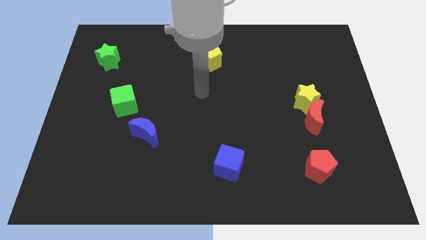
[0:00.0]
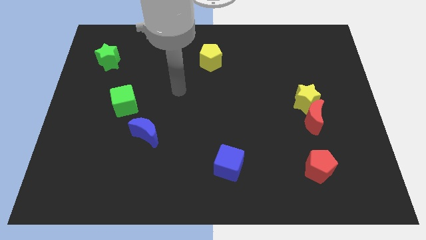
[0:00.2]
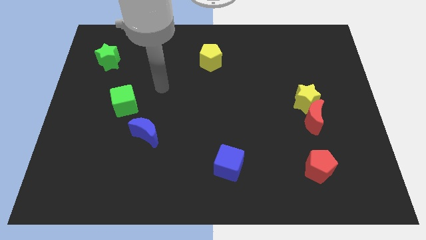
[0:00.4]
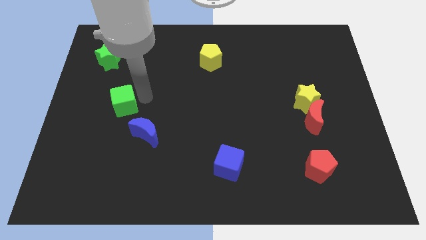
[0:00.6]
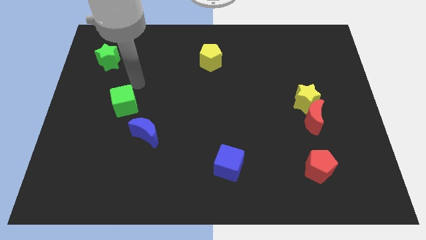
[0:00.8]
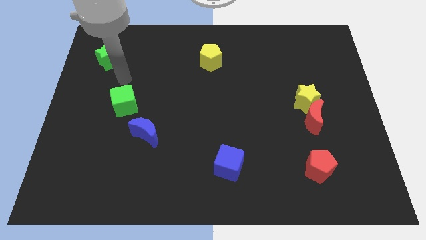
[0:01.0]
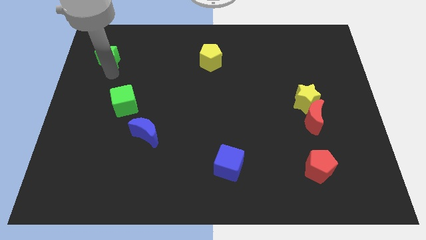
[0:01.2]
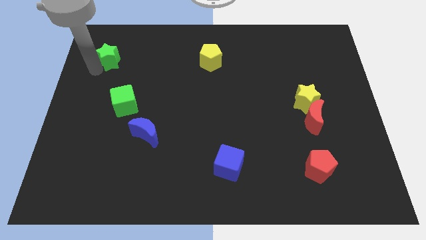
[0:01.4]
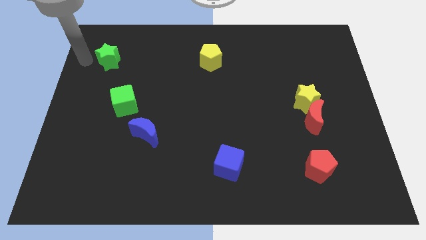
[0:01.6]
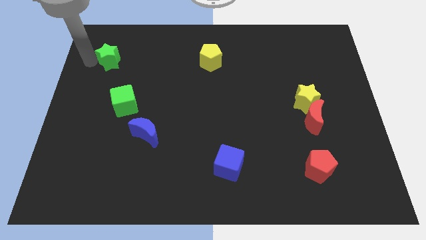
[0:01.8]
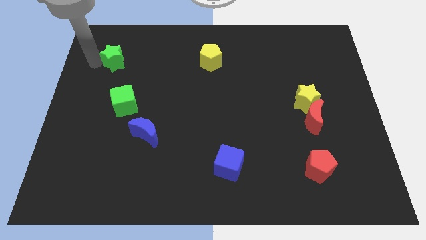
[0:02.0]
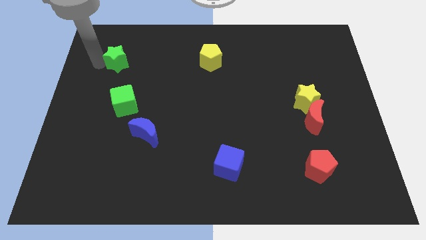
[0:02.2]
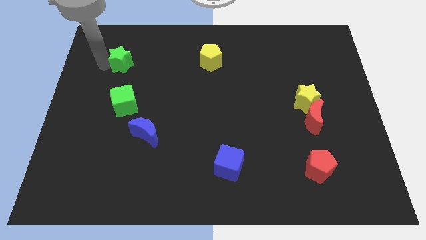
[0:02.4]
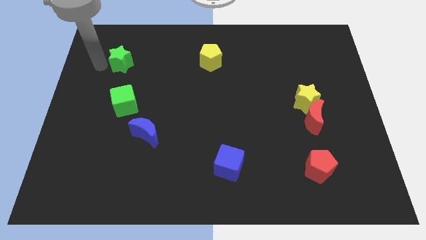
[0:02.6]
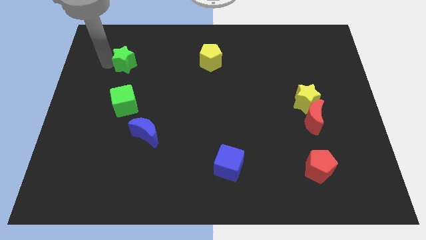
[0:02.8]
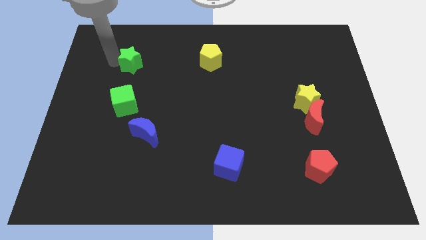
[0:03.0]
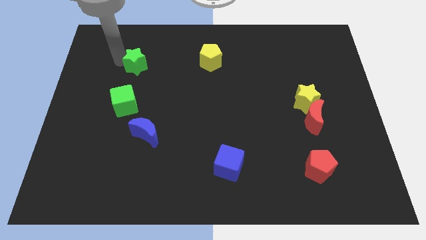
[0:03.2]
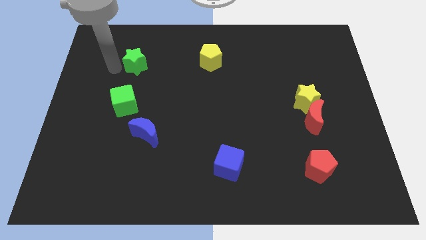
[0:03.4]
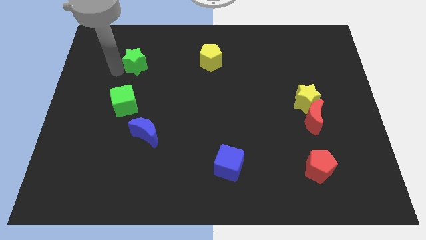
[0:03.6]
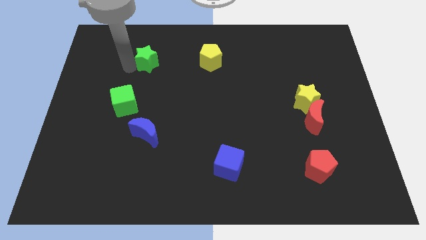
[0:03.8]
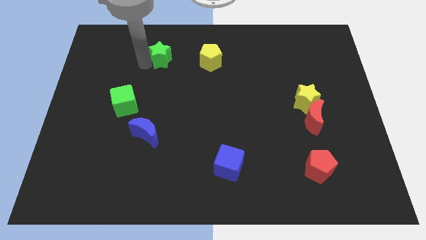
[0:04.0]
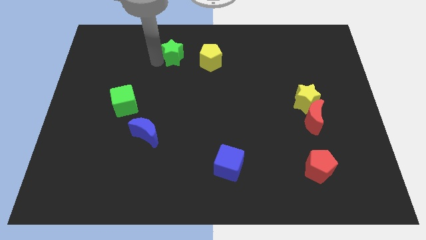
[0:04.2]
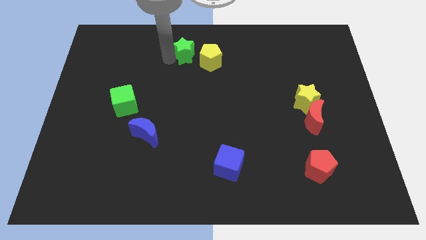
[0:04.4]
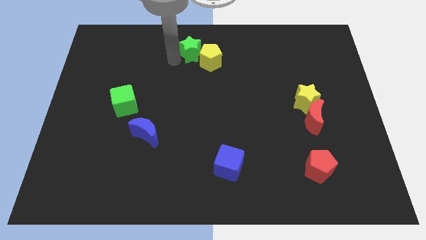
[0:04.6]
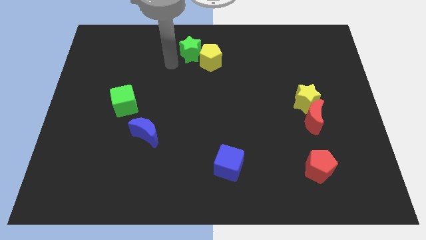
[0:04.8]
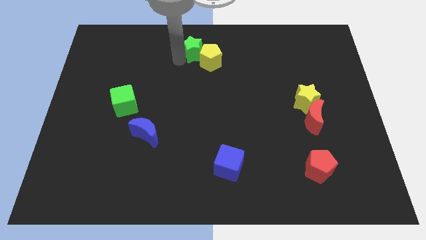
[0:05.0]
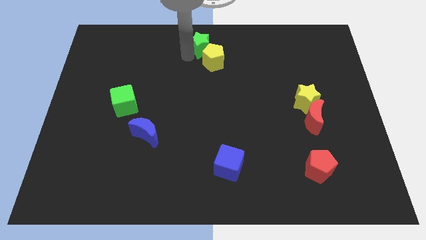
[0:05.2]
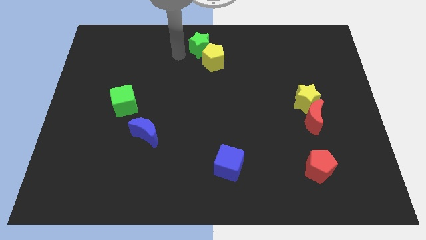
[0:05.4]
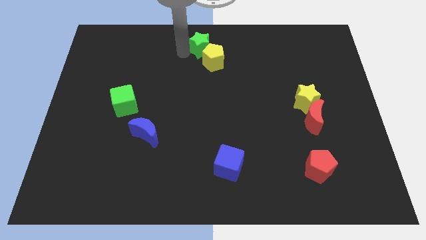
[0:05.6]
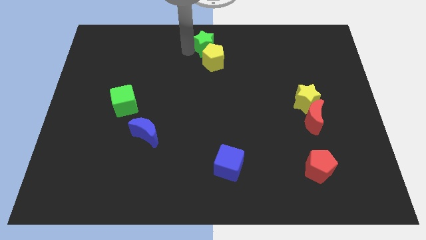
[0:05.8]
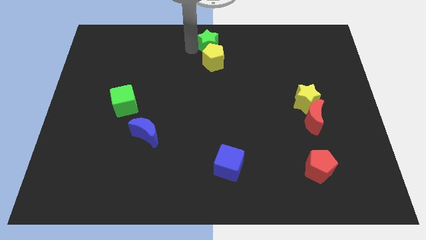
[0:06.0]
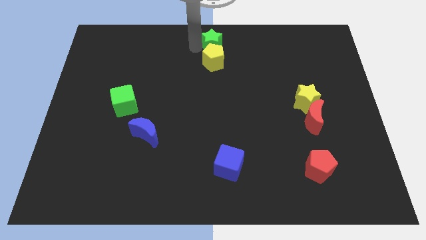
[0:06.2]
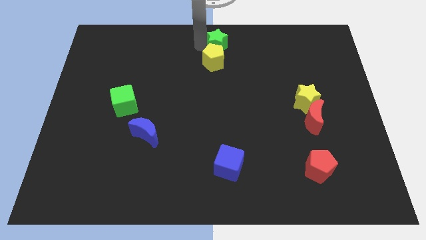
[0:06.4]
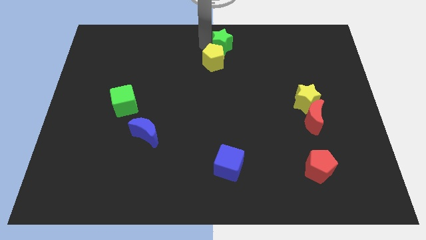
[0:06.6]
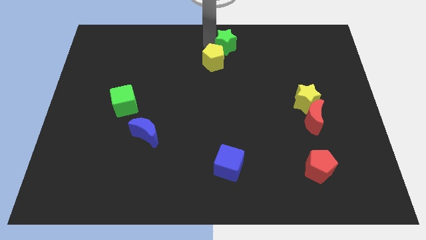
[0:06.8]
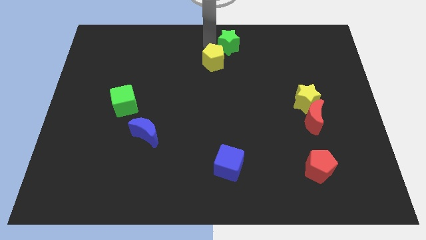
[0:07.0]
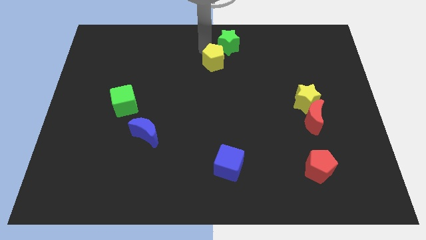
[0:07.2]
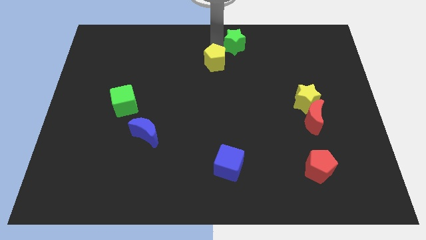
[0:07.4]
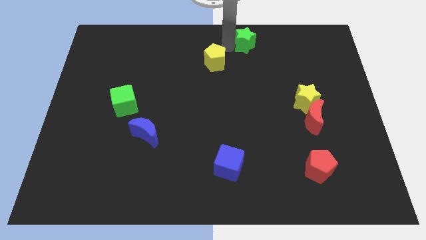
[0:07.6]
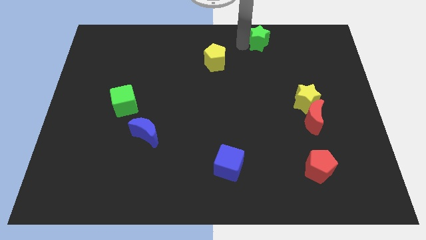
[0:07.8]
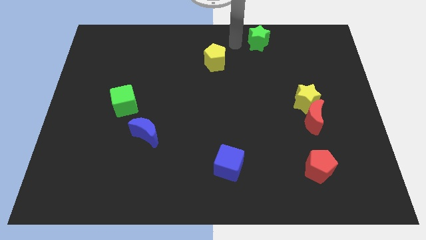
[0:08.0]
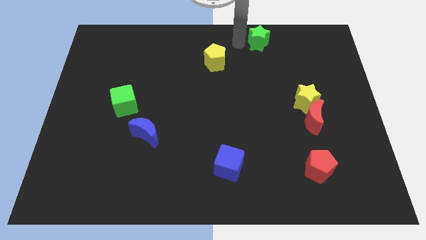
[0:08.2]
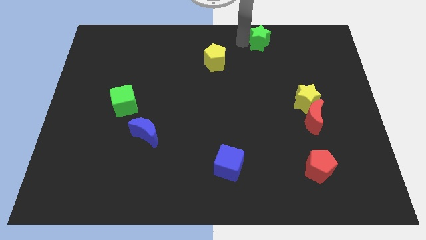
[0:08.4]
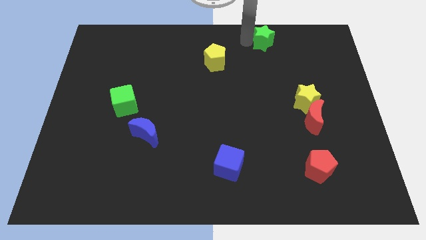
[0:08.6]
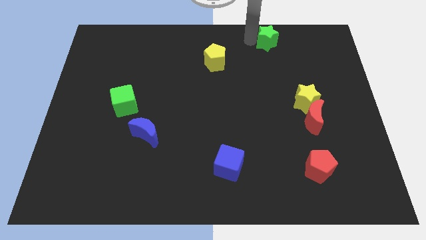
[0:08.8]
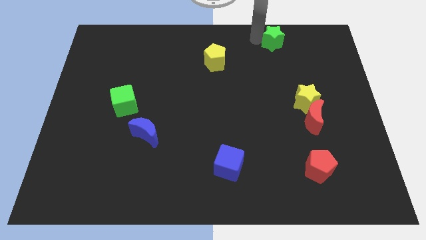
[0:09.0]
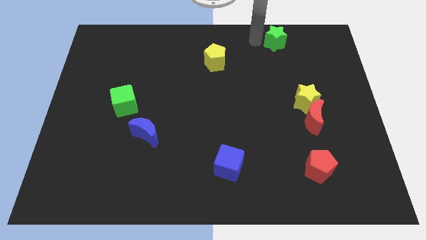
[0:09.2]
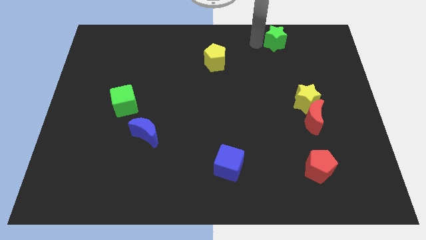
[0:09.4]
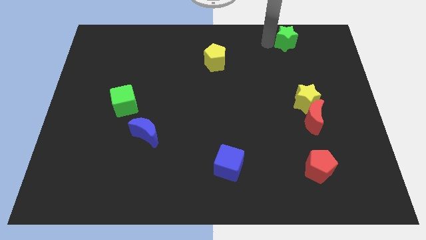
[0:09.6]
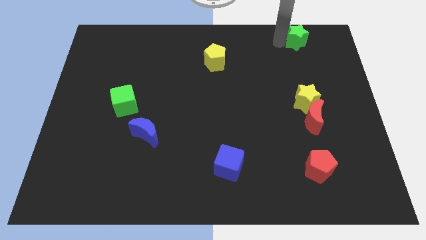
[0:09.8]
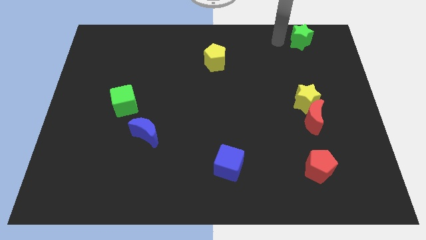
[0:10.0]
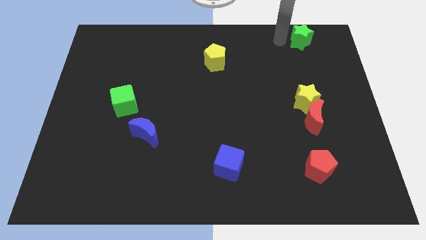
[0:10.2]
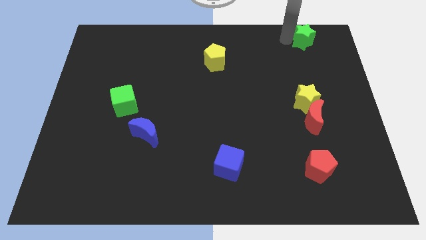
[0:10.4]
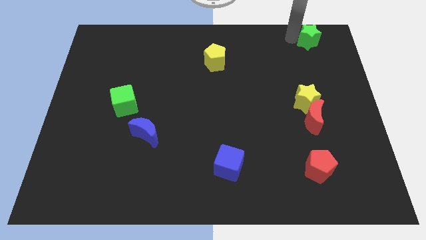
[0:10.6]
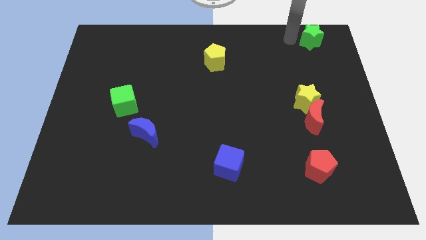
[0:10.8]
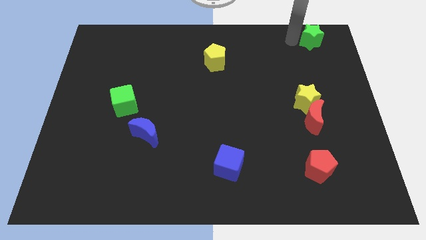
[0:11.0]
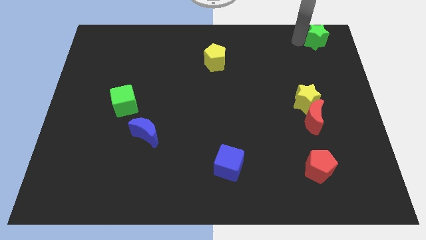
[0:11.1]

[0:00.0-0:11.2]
move the green star to the top right
